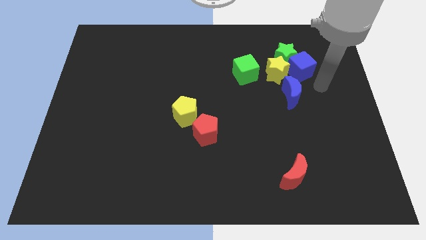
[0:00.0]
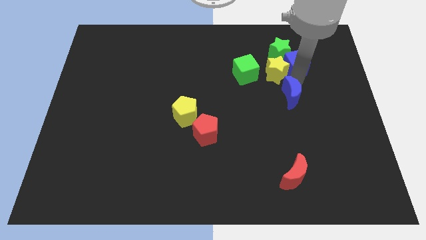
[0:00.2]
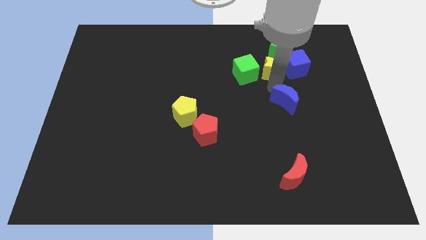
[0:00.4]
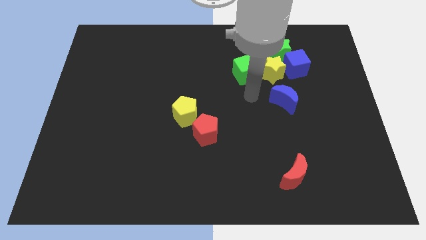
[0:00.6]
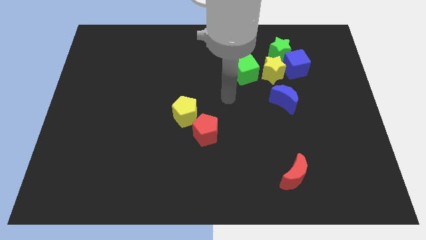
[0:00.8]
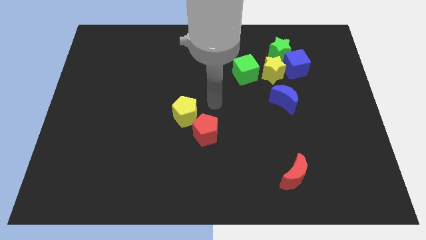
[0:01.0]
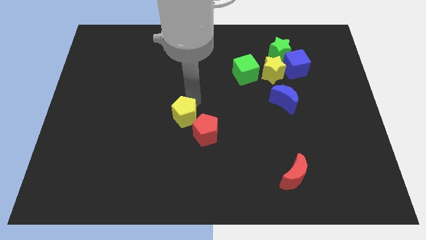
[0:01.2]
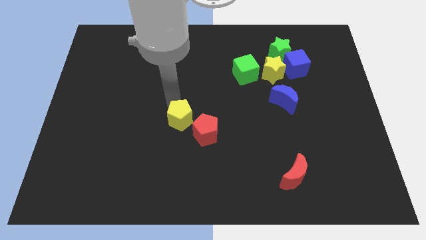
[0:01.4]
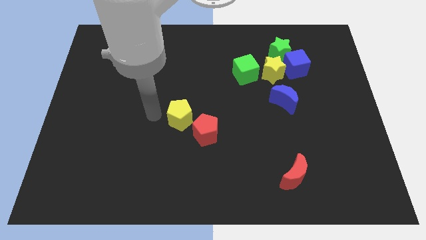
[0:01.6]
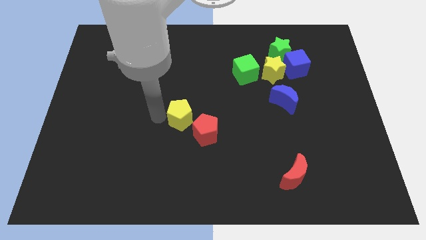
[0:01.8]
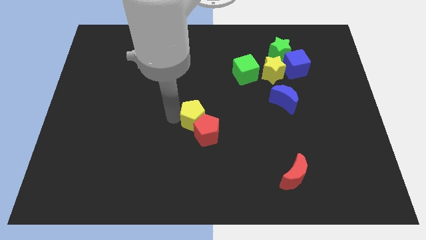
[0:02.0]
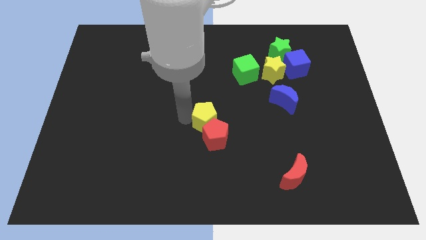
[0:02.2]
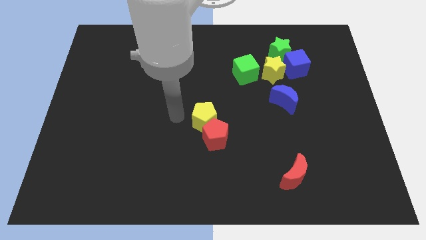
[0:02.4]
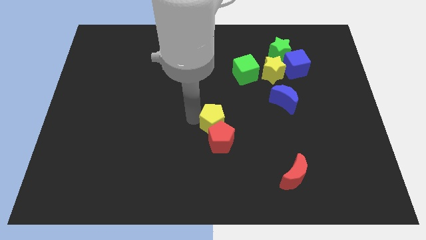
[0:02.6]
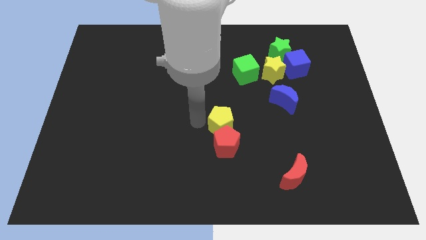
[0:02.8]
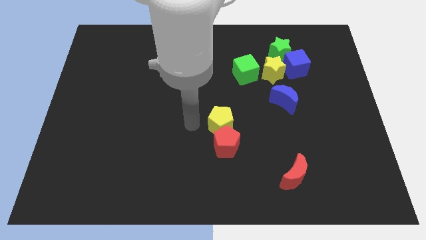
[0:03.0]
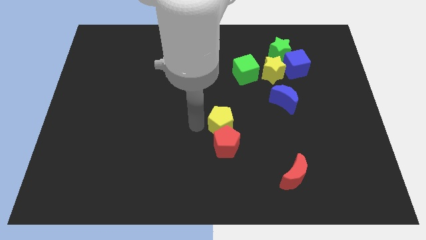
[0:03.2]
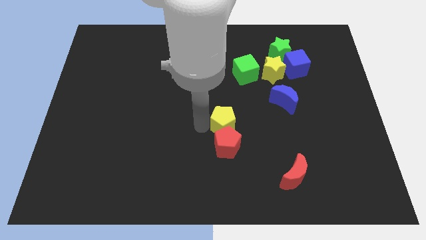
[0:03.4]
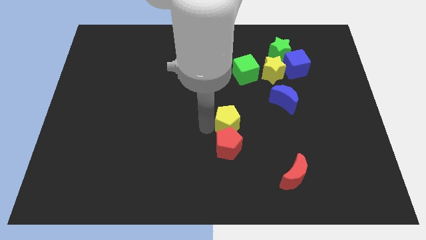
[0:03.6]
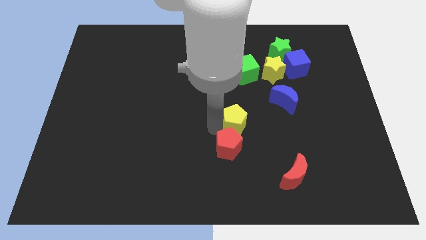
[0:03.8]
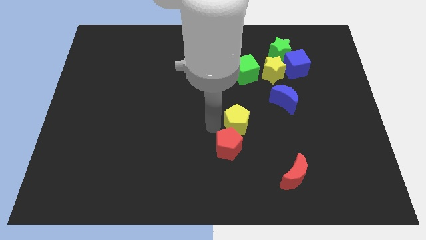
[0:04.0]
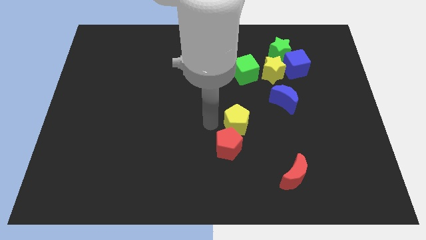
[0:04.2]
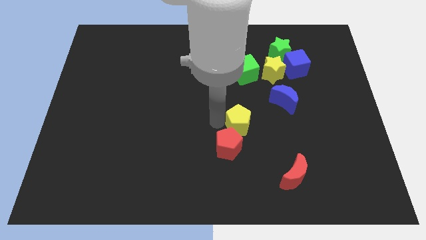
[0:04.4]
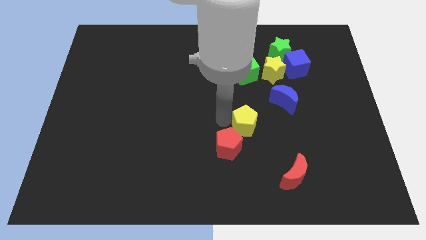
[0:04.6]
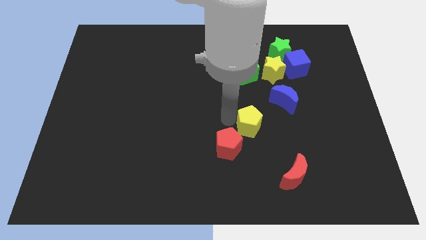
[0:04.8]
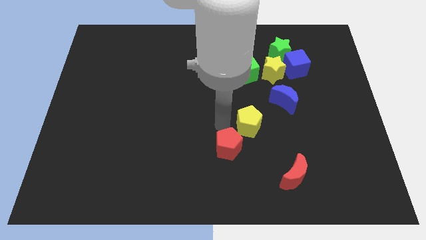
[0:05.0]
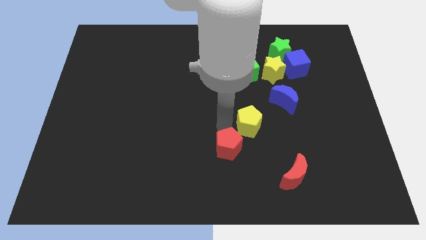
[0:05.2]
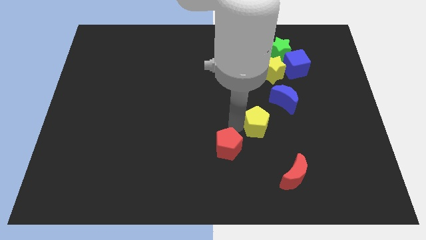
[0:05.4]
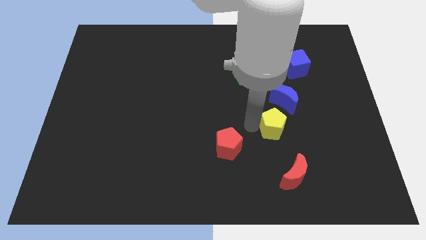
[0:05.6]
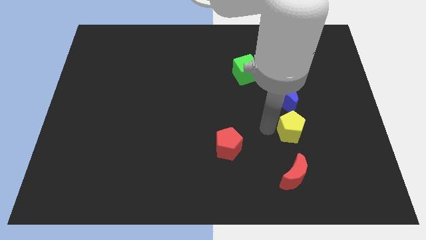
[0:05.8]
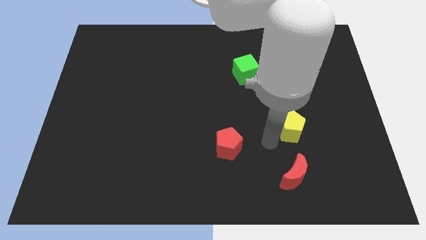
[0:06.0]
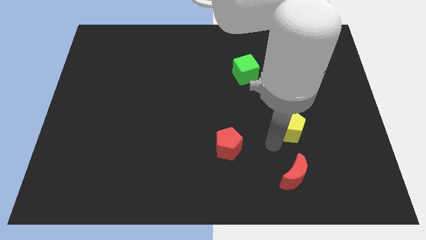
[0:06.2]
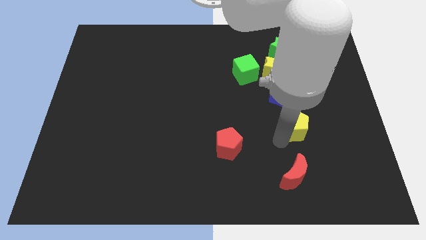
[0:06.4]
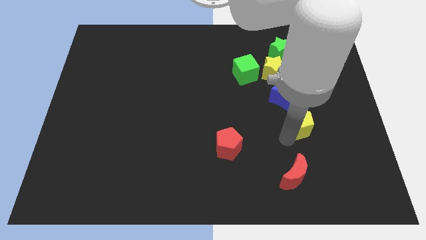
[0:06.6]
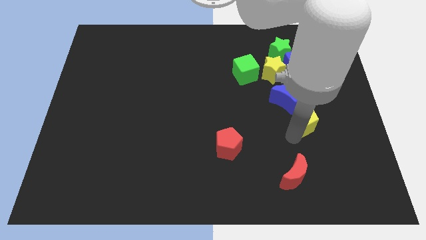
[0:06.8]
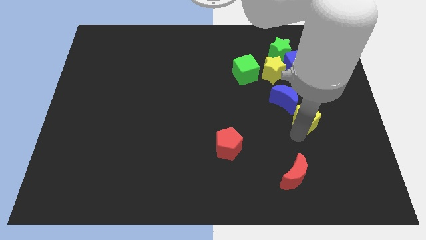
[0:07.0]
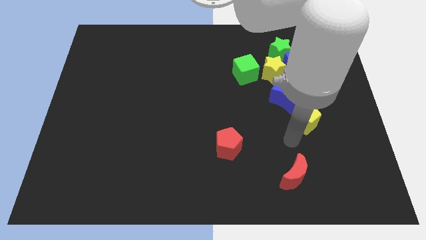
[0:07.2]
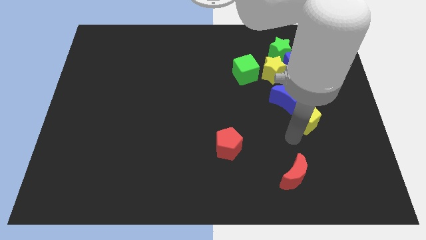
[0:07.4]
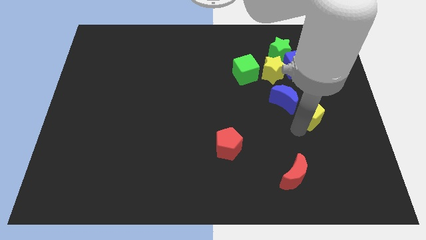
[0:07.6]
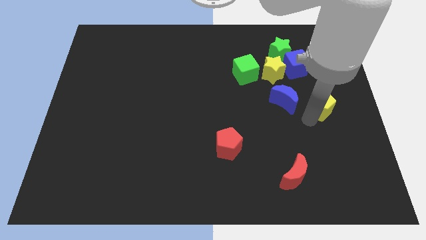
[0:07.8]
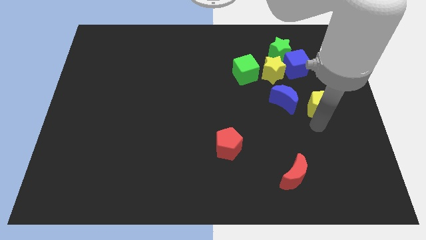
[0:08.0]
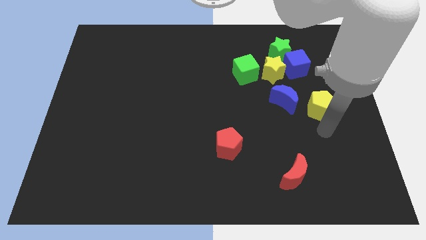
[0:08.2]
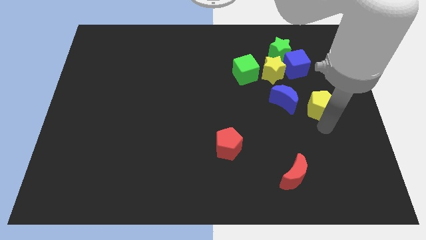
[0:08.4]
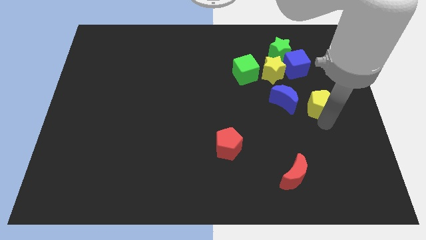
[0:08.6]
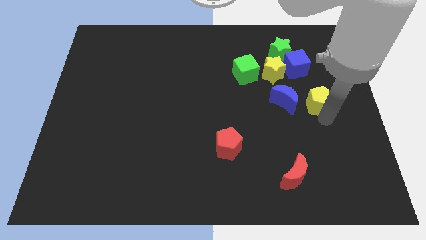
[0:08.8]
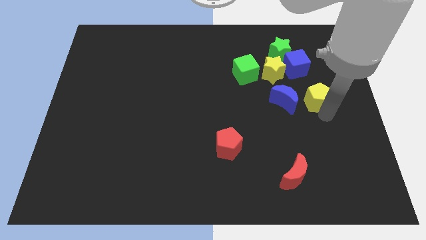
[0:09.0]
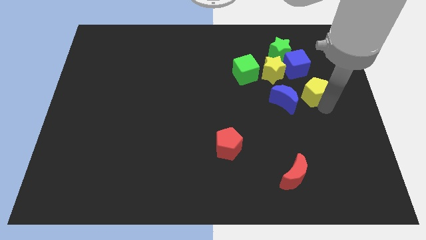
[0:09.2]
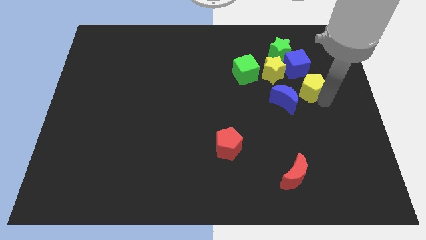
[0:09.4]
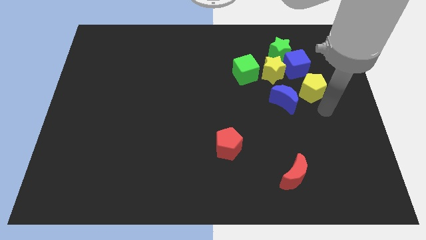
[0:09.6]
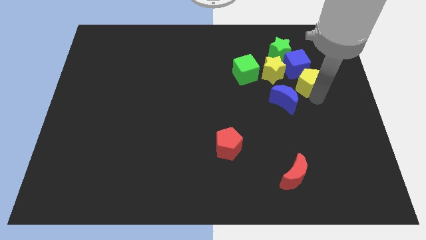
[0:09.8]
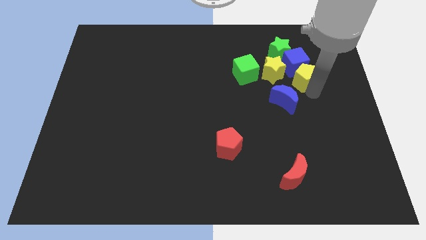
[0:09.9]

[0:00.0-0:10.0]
move the yellow pentagon close to the blue cube

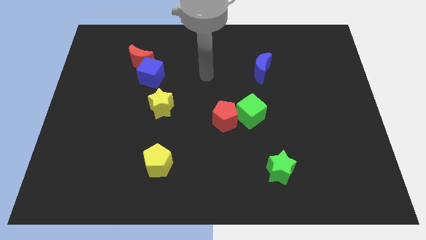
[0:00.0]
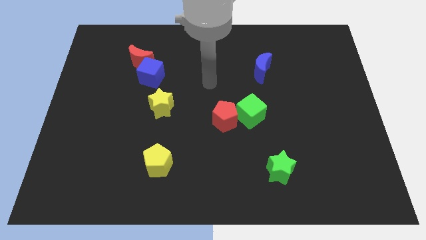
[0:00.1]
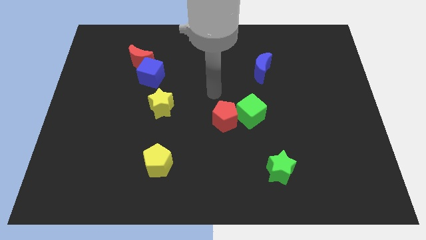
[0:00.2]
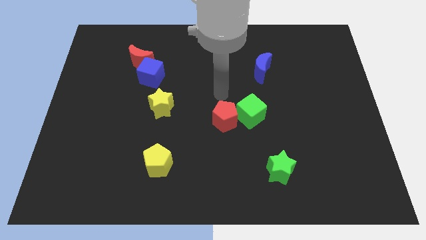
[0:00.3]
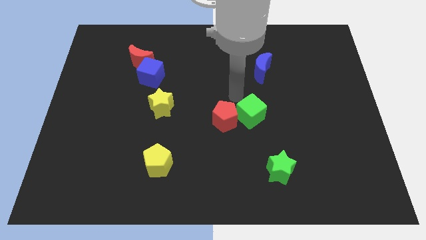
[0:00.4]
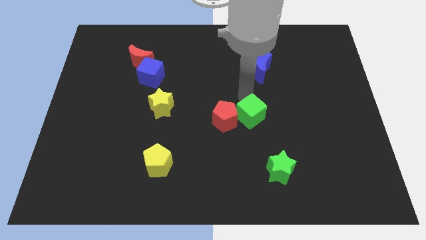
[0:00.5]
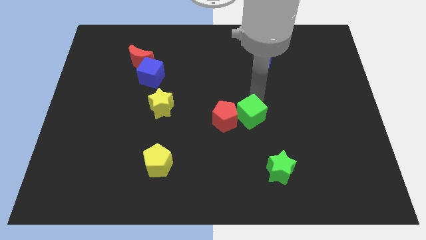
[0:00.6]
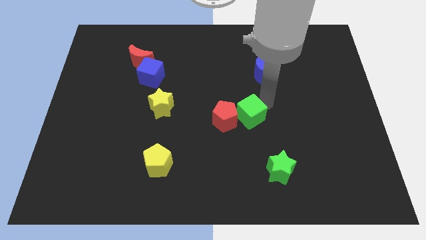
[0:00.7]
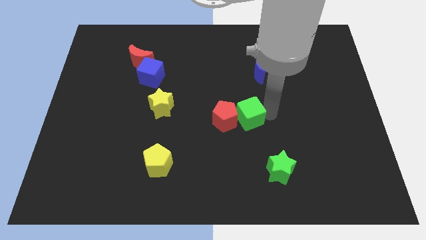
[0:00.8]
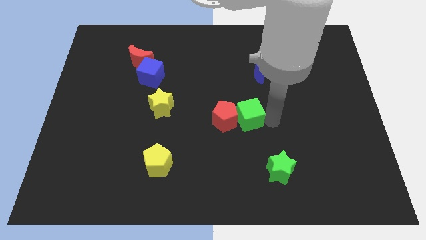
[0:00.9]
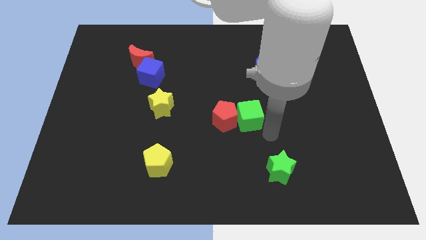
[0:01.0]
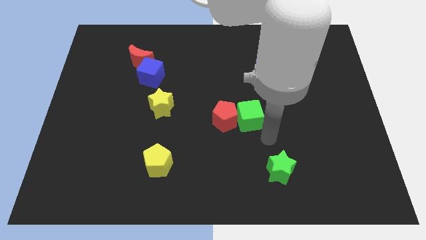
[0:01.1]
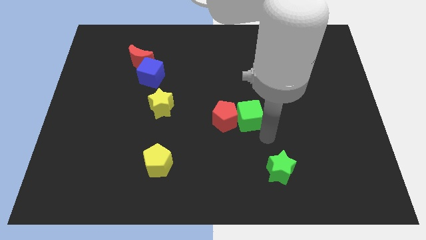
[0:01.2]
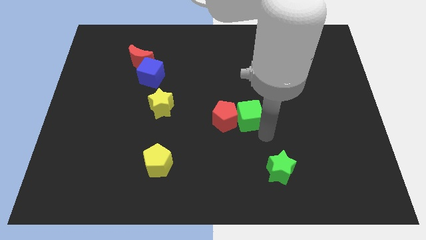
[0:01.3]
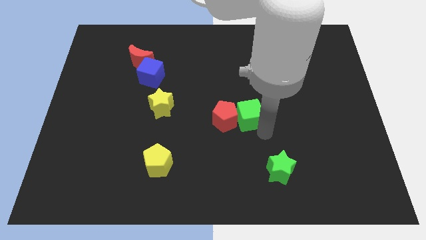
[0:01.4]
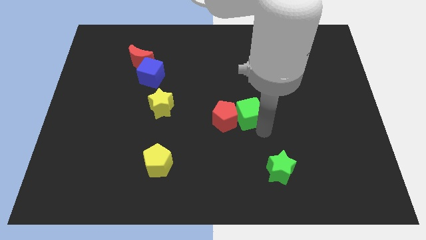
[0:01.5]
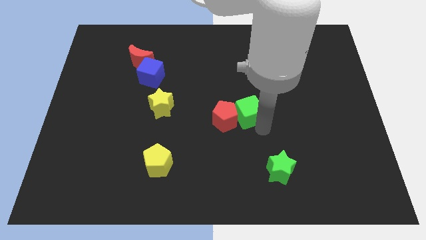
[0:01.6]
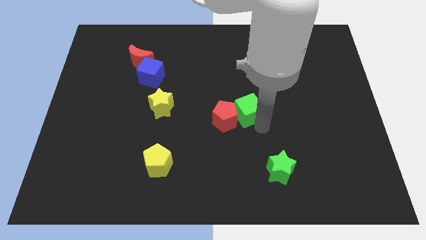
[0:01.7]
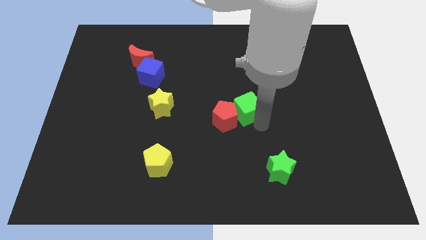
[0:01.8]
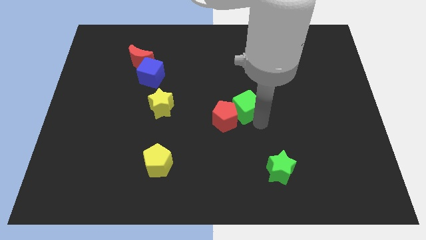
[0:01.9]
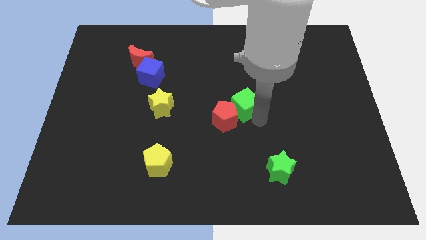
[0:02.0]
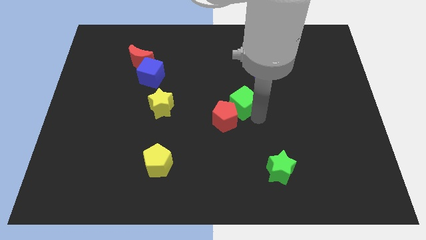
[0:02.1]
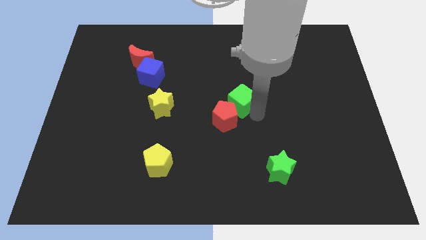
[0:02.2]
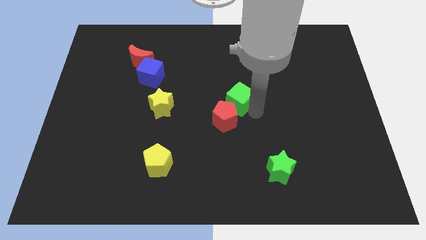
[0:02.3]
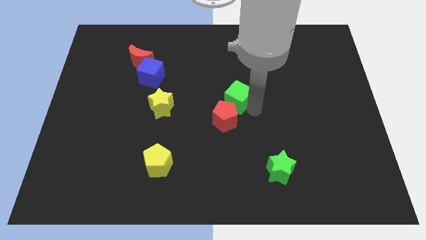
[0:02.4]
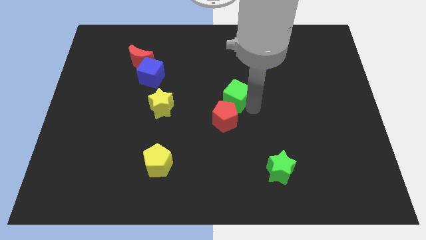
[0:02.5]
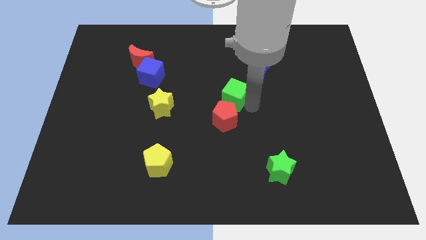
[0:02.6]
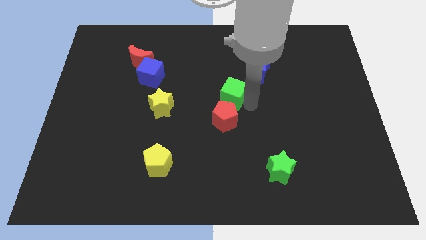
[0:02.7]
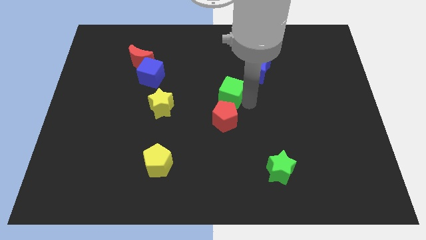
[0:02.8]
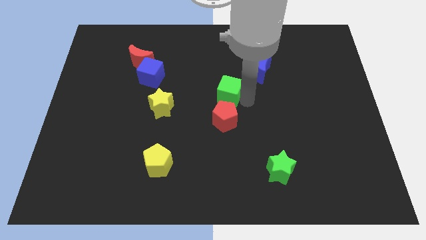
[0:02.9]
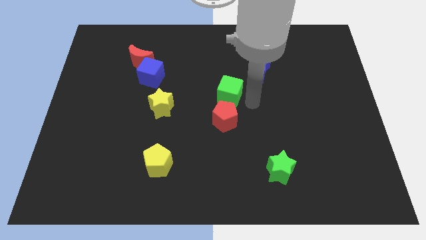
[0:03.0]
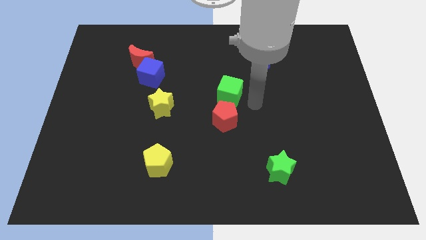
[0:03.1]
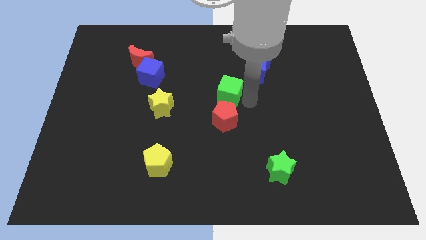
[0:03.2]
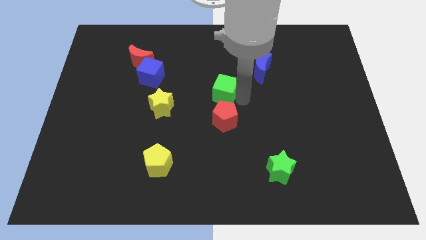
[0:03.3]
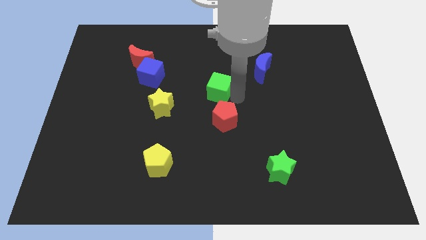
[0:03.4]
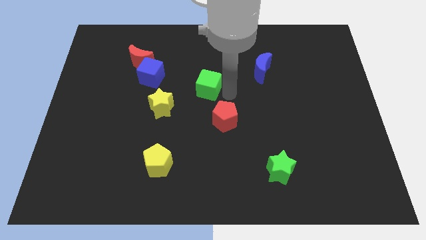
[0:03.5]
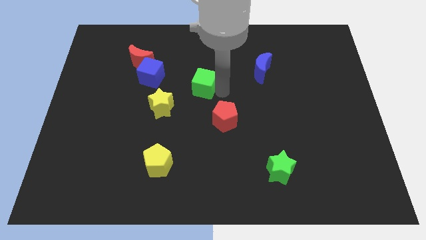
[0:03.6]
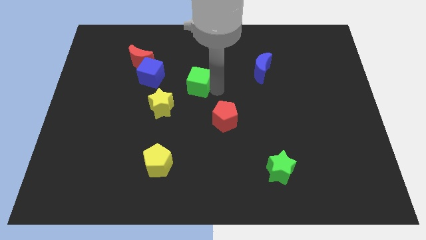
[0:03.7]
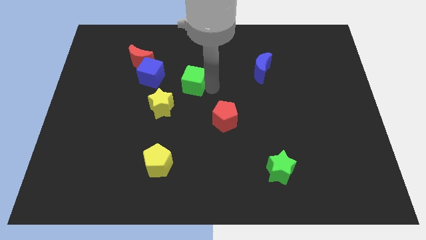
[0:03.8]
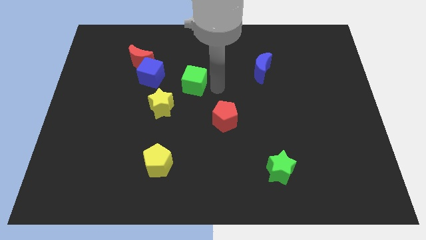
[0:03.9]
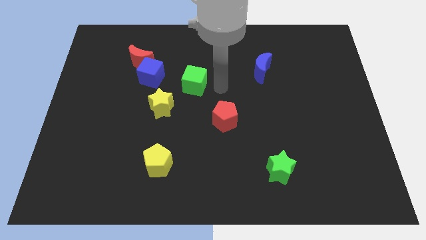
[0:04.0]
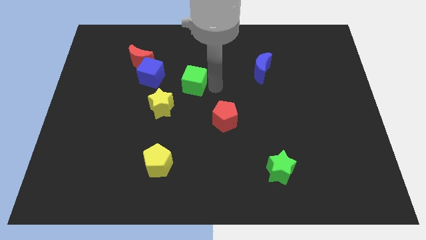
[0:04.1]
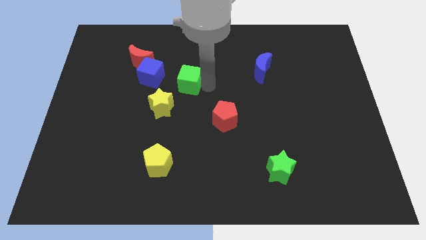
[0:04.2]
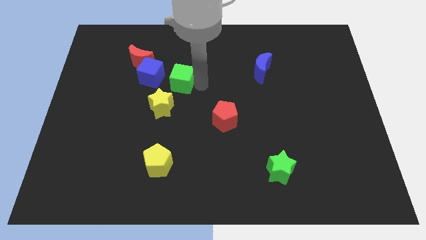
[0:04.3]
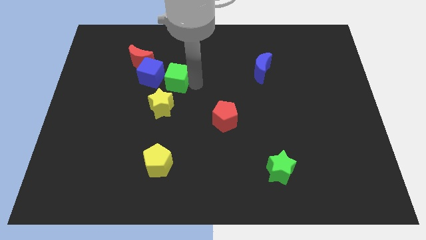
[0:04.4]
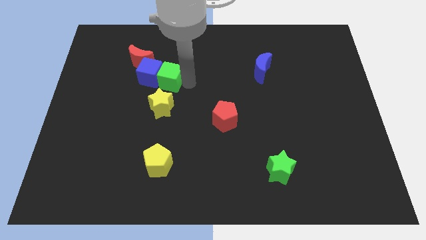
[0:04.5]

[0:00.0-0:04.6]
move the green cube close to the blue cube
